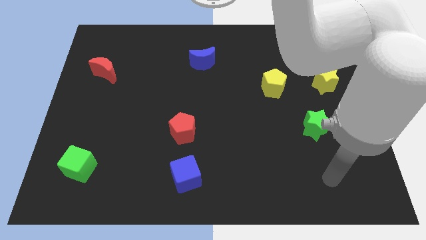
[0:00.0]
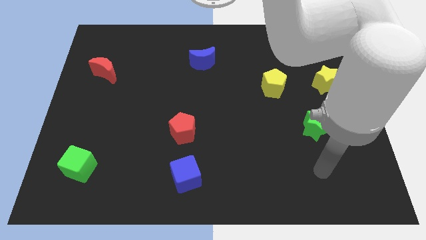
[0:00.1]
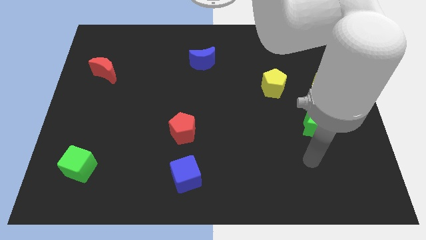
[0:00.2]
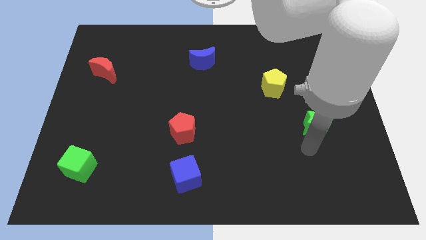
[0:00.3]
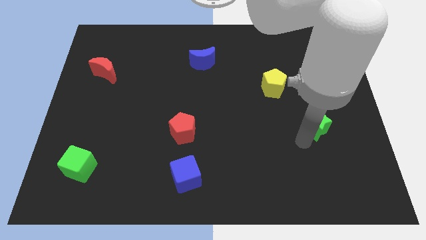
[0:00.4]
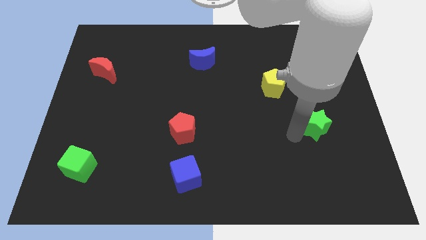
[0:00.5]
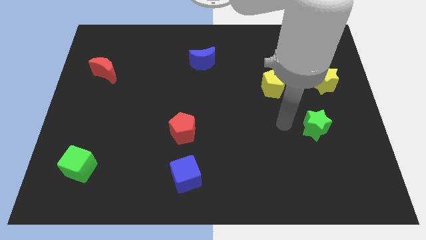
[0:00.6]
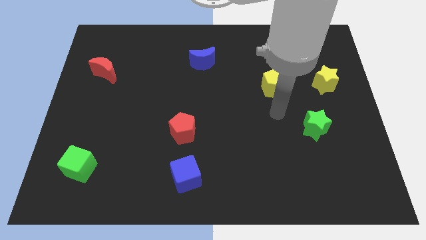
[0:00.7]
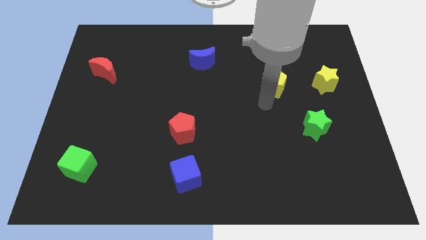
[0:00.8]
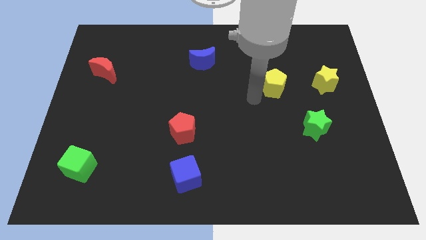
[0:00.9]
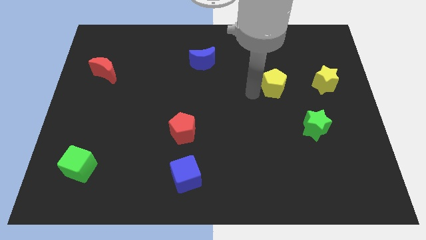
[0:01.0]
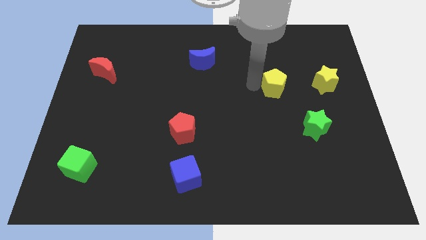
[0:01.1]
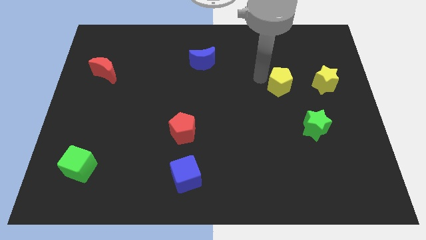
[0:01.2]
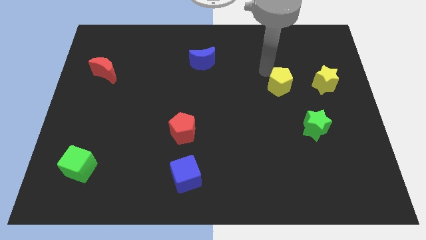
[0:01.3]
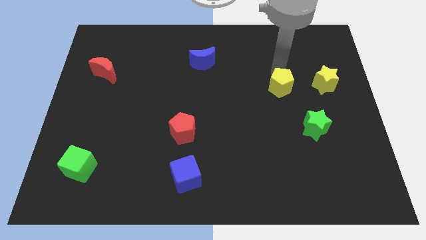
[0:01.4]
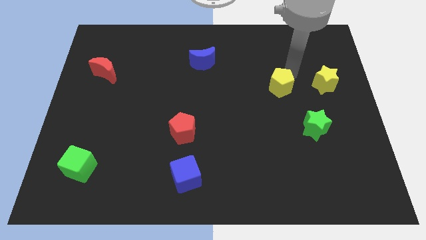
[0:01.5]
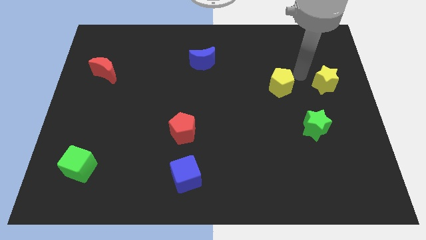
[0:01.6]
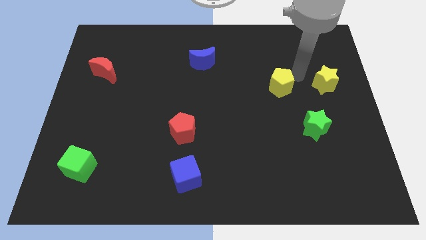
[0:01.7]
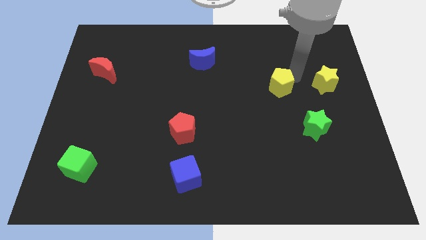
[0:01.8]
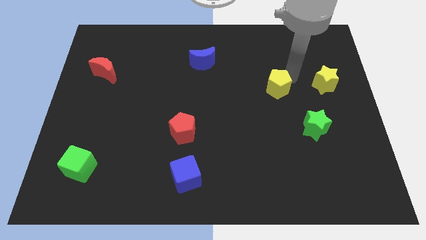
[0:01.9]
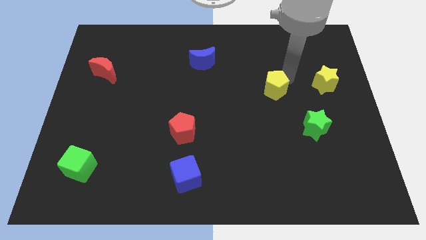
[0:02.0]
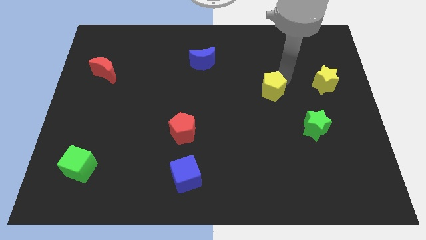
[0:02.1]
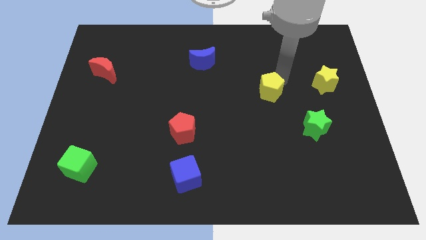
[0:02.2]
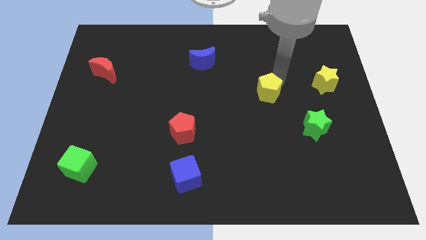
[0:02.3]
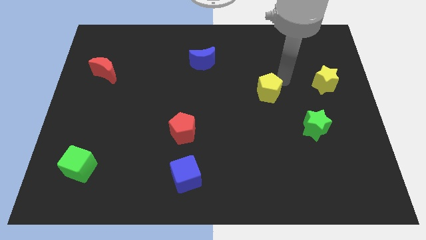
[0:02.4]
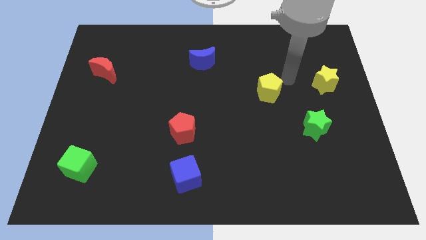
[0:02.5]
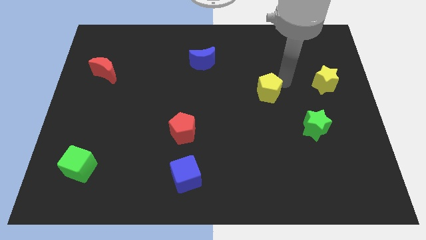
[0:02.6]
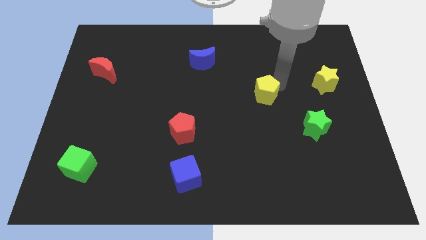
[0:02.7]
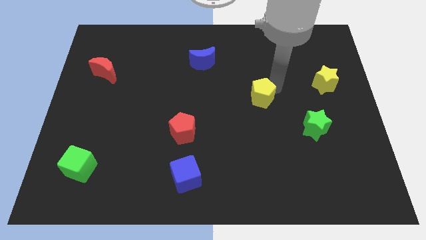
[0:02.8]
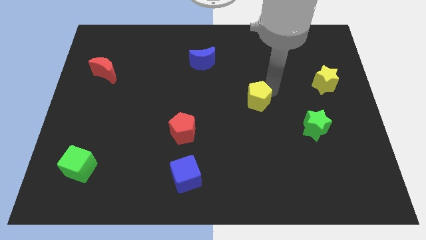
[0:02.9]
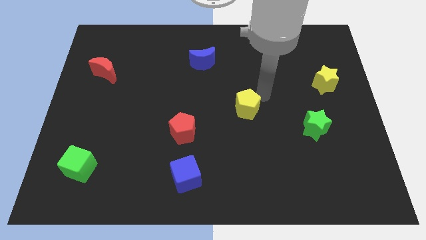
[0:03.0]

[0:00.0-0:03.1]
slightly push the yellow pentagon diagonally down and left

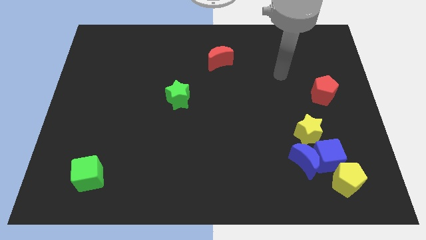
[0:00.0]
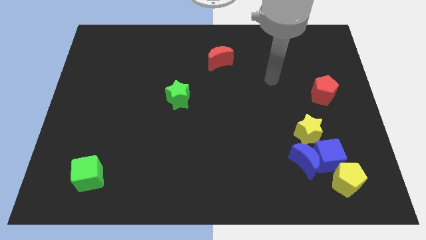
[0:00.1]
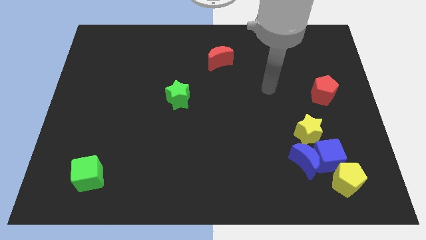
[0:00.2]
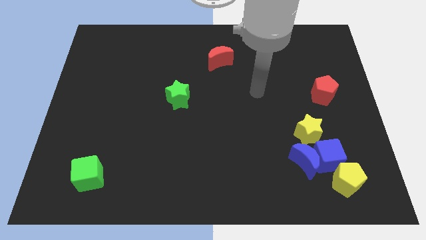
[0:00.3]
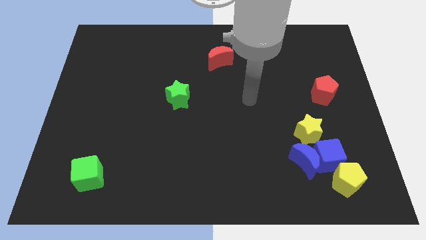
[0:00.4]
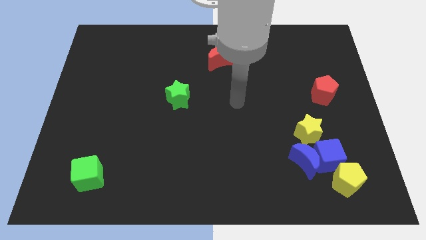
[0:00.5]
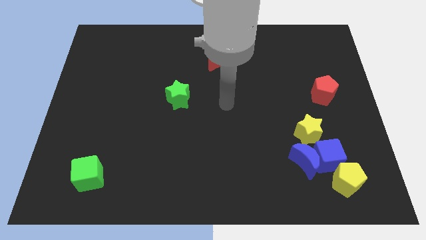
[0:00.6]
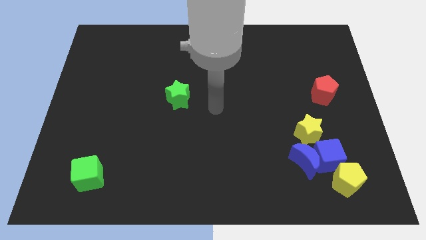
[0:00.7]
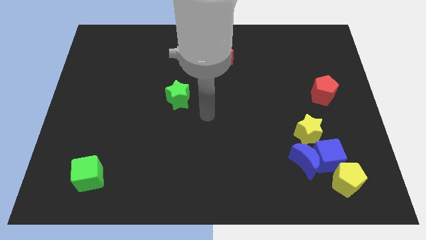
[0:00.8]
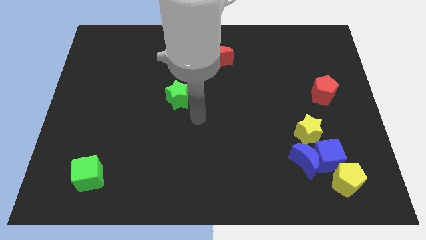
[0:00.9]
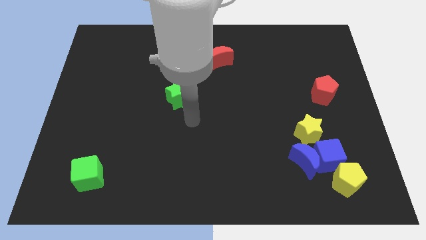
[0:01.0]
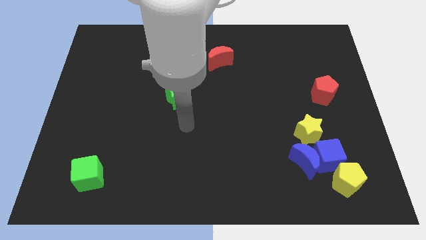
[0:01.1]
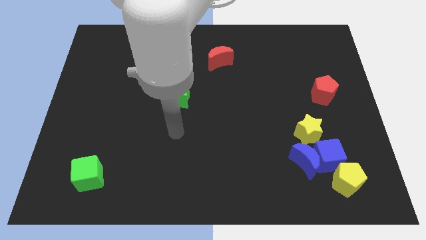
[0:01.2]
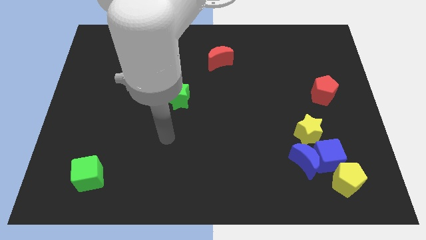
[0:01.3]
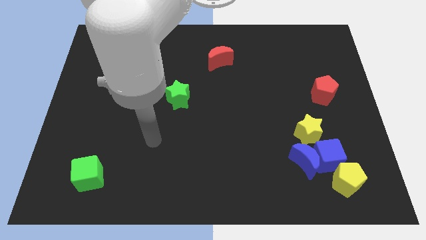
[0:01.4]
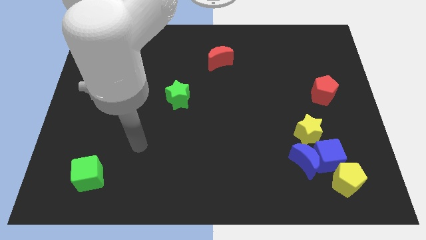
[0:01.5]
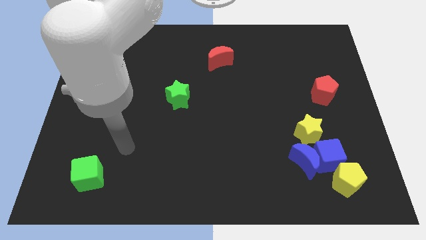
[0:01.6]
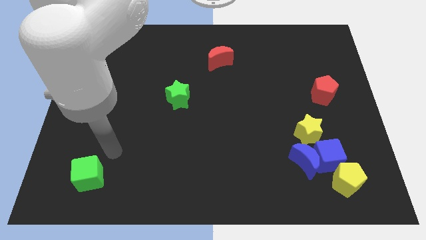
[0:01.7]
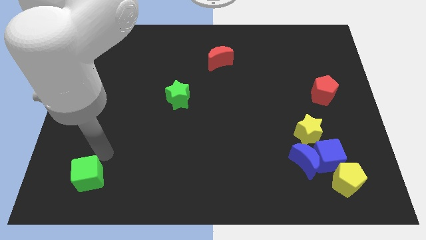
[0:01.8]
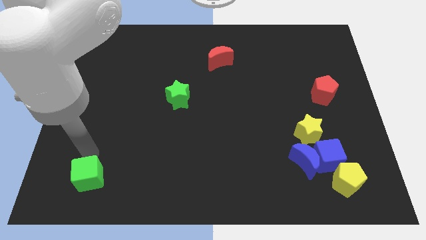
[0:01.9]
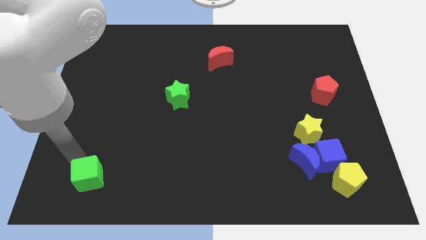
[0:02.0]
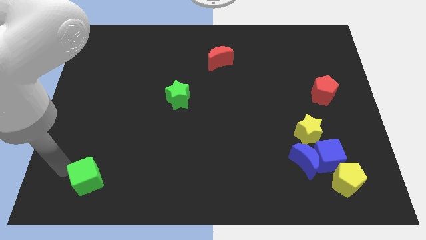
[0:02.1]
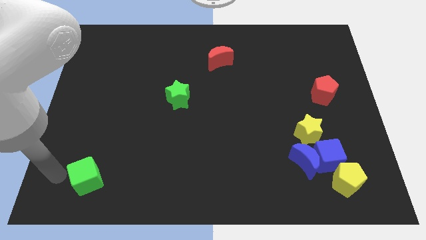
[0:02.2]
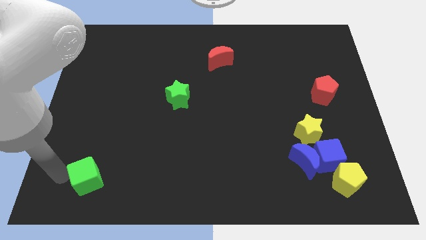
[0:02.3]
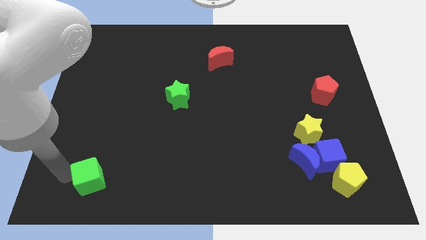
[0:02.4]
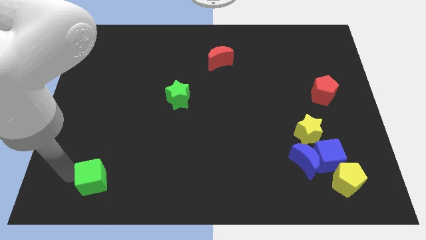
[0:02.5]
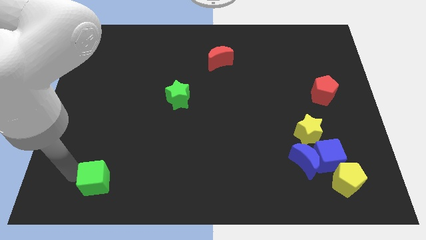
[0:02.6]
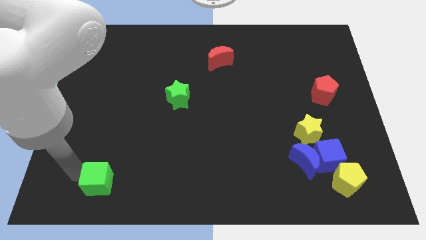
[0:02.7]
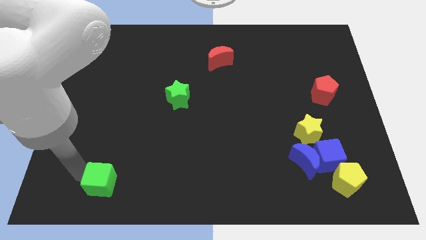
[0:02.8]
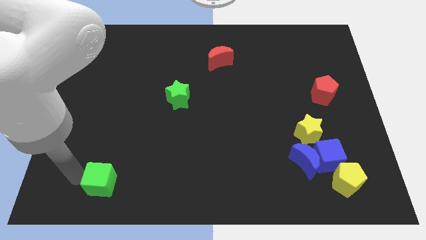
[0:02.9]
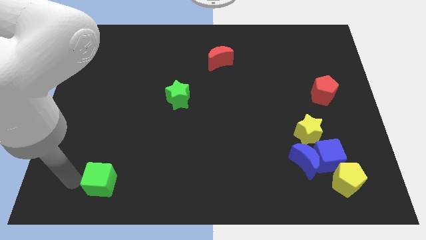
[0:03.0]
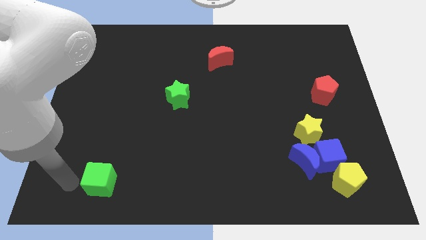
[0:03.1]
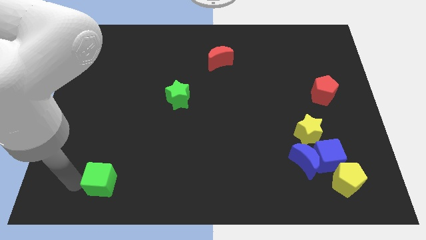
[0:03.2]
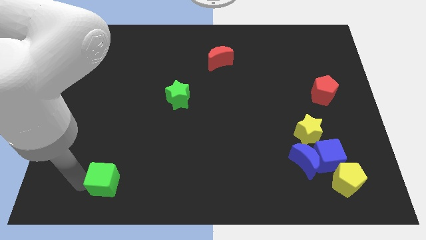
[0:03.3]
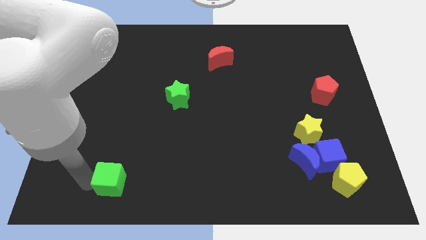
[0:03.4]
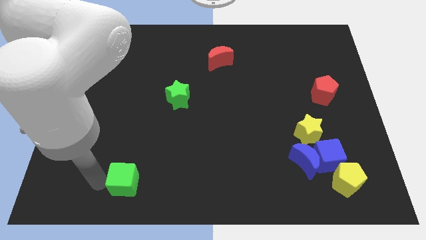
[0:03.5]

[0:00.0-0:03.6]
push the green cube to the right a little bit

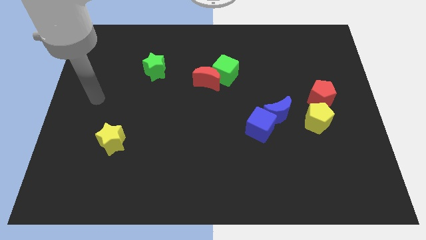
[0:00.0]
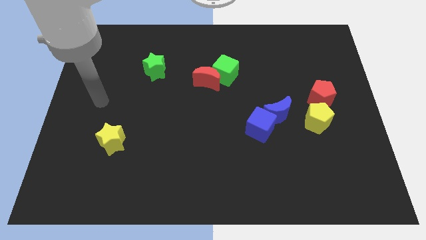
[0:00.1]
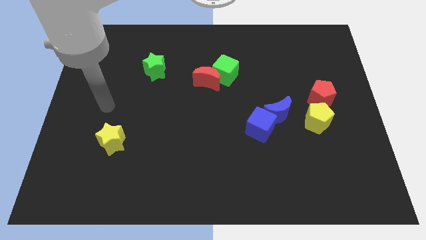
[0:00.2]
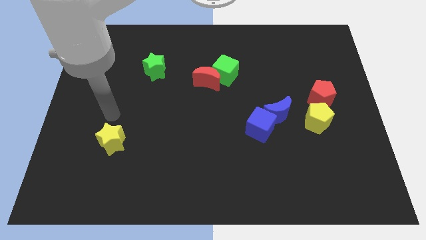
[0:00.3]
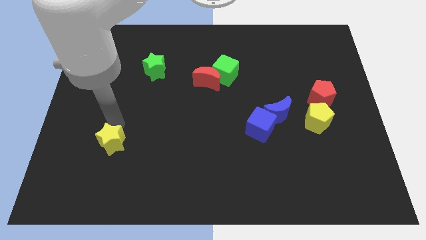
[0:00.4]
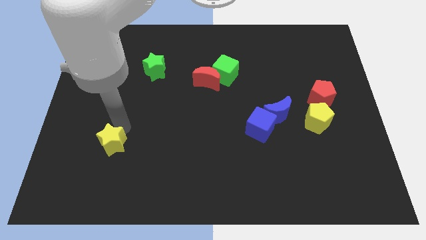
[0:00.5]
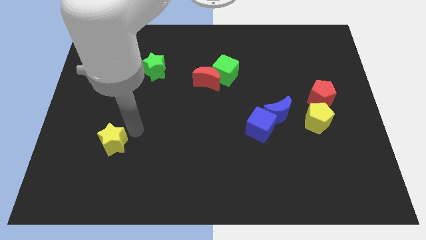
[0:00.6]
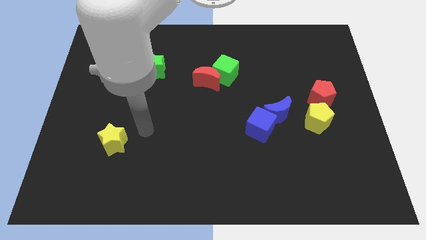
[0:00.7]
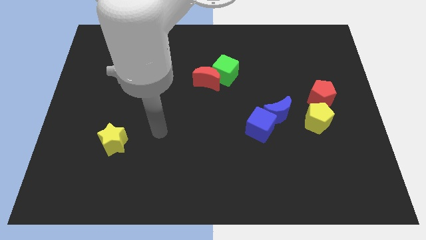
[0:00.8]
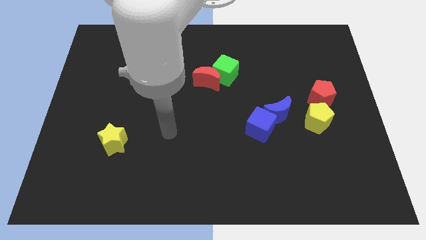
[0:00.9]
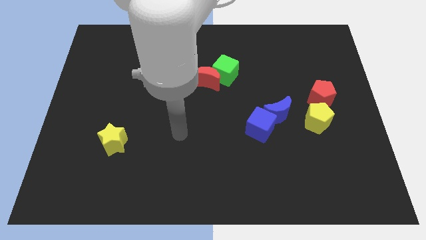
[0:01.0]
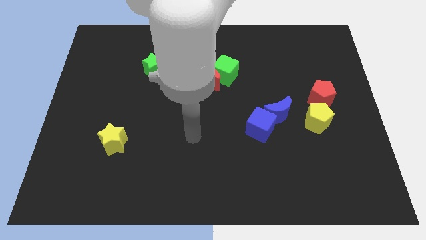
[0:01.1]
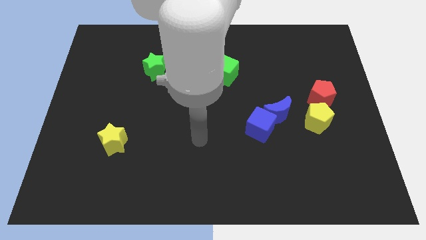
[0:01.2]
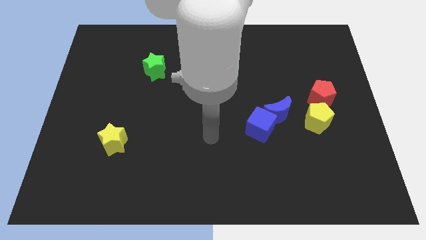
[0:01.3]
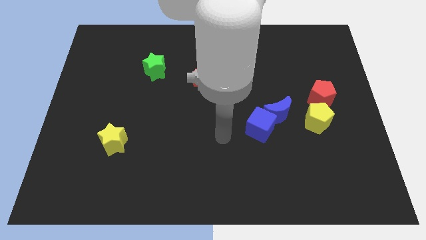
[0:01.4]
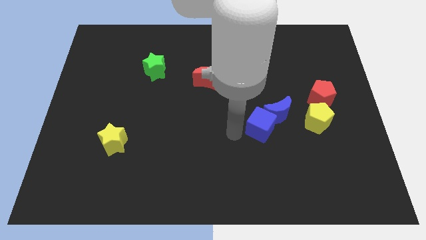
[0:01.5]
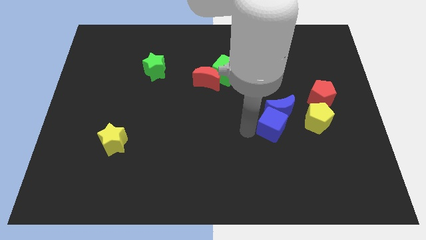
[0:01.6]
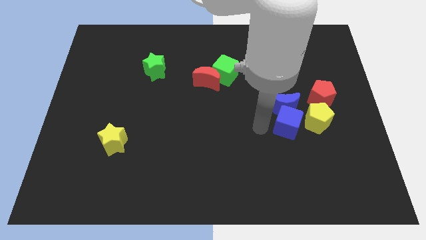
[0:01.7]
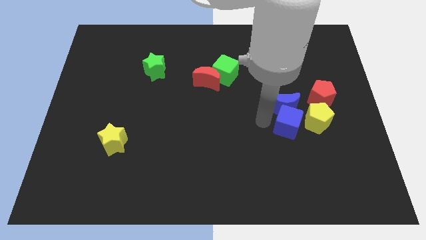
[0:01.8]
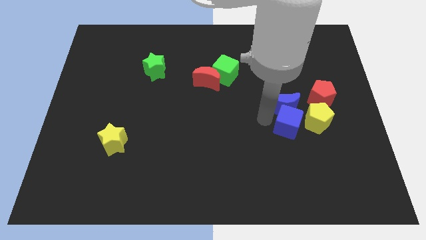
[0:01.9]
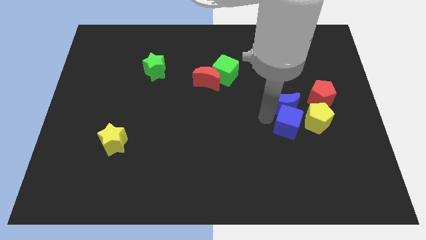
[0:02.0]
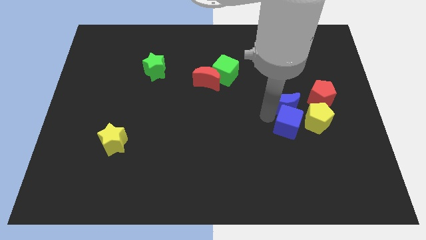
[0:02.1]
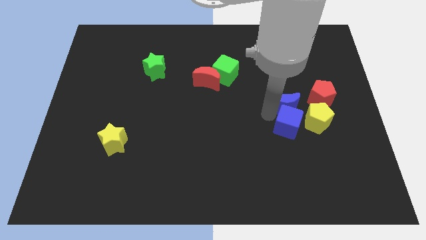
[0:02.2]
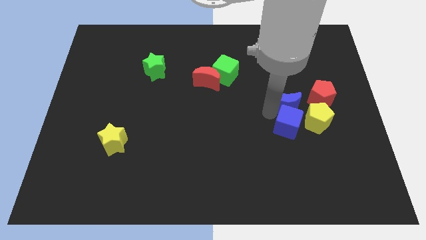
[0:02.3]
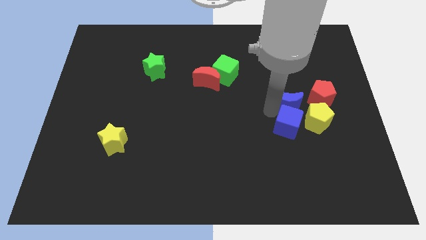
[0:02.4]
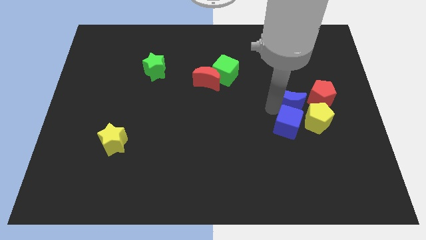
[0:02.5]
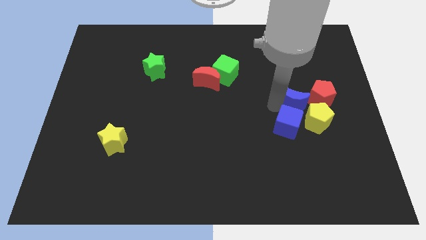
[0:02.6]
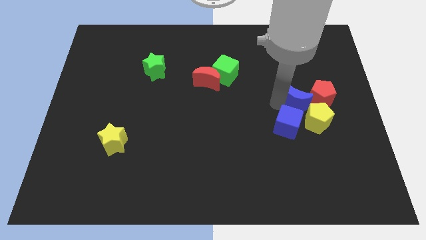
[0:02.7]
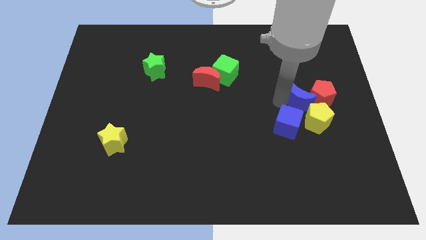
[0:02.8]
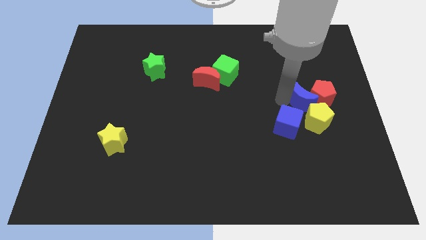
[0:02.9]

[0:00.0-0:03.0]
slightly slide the blue moon up and right diagonally
